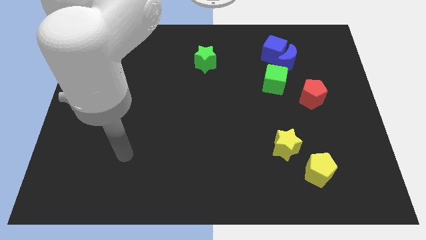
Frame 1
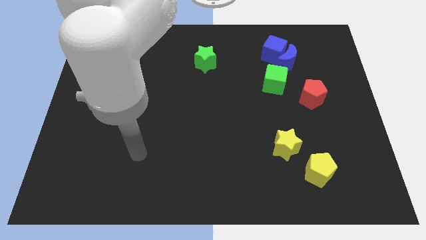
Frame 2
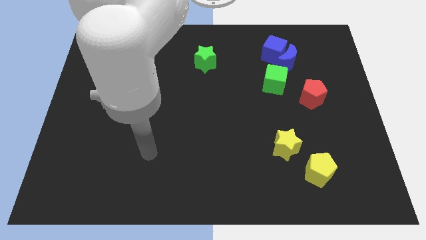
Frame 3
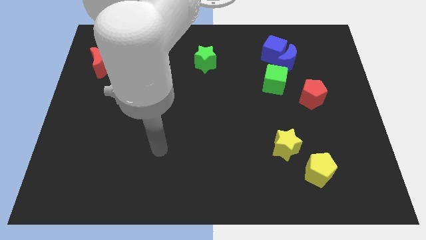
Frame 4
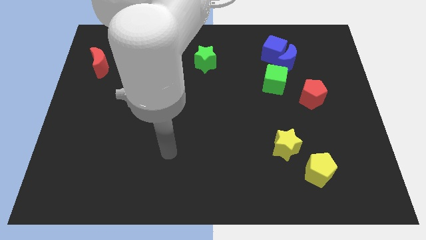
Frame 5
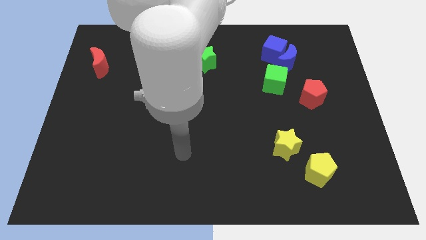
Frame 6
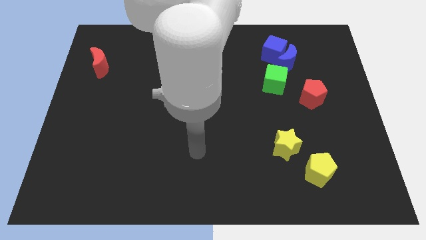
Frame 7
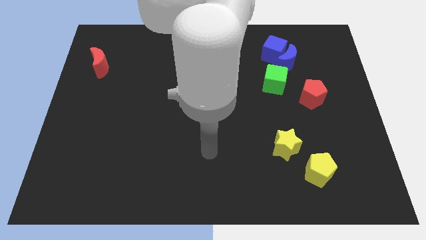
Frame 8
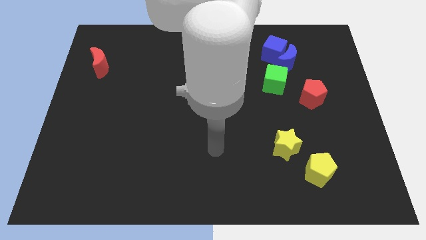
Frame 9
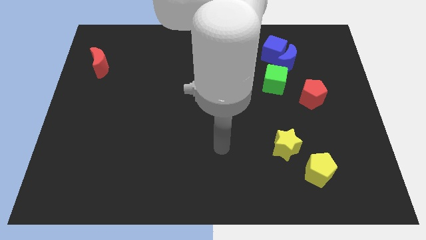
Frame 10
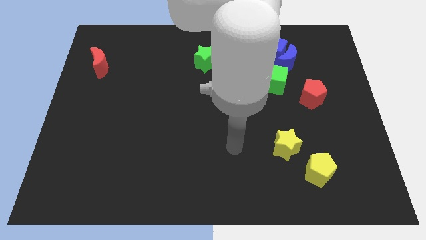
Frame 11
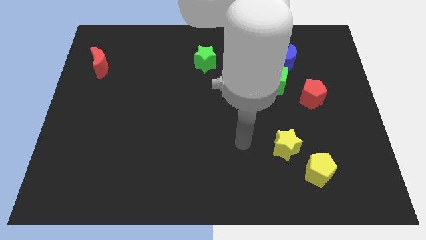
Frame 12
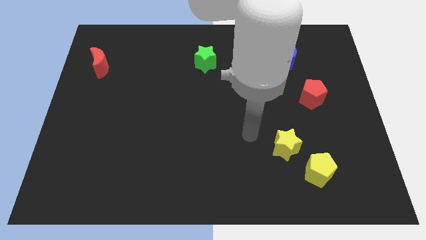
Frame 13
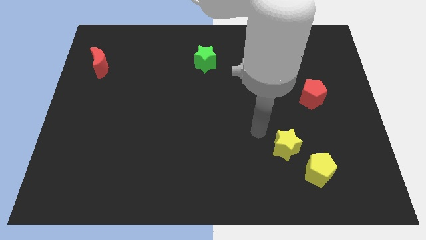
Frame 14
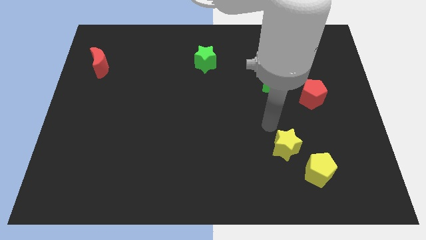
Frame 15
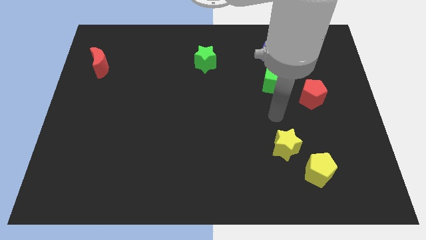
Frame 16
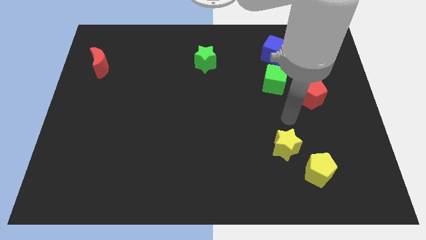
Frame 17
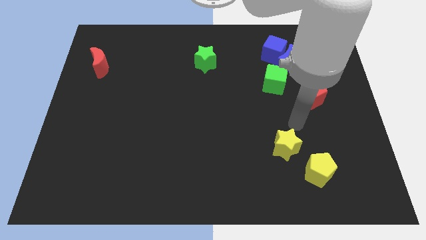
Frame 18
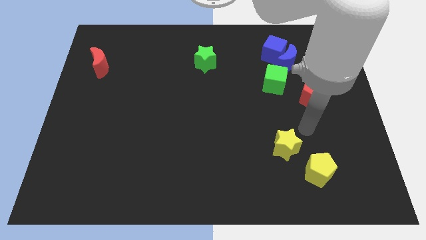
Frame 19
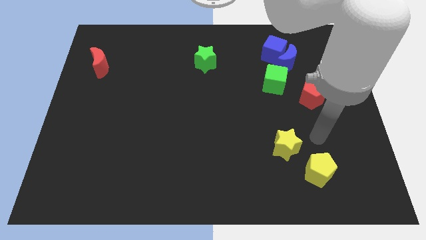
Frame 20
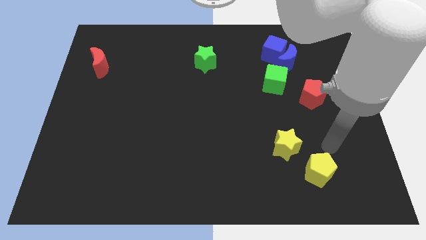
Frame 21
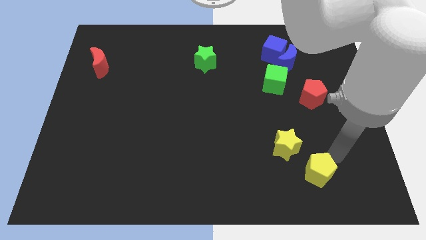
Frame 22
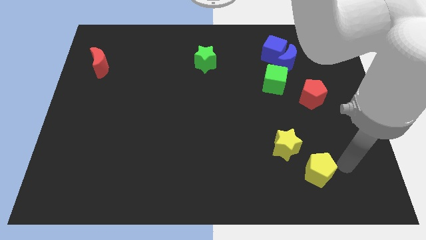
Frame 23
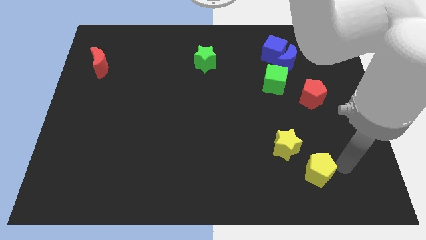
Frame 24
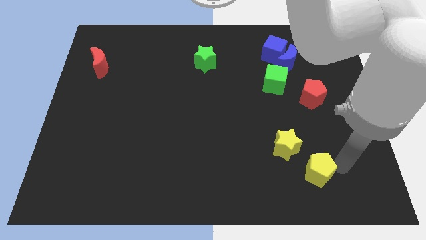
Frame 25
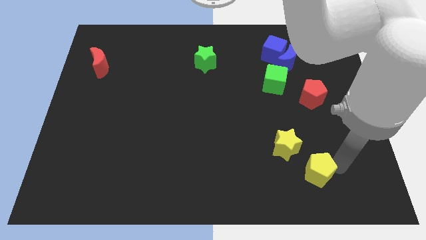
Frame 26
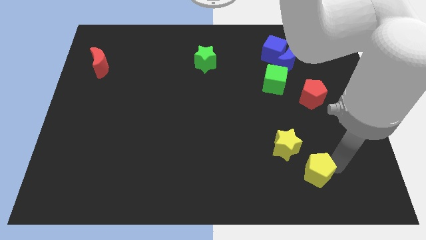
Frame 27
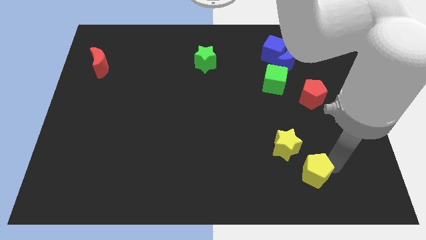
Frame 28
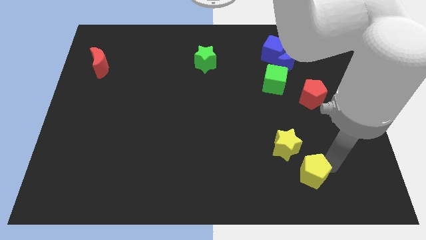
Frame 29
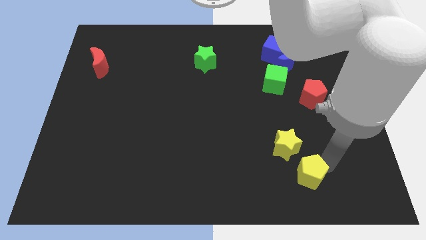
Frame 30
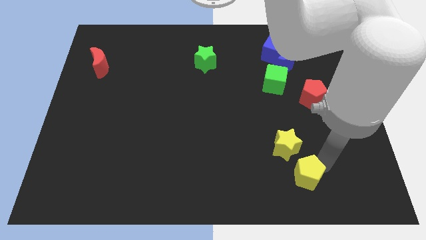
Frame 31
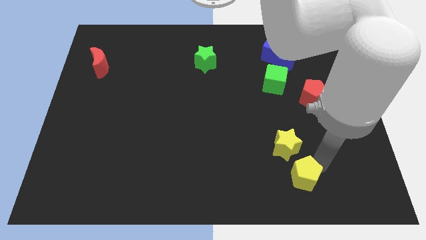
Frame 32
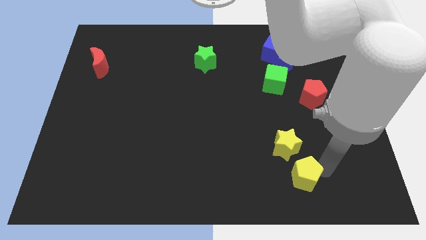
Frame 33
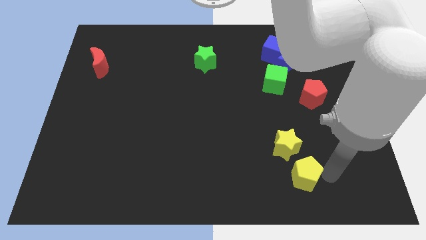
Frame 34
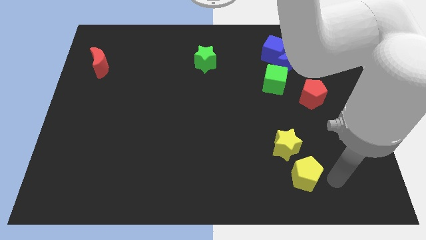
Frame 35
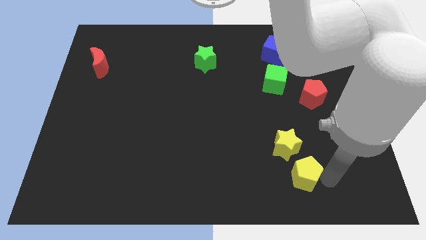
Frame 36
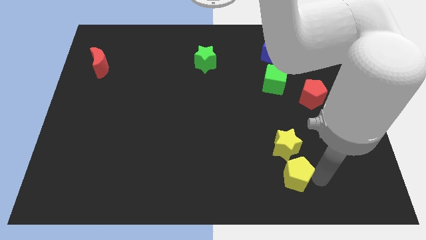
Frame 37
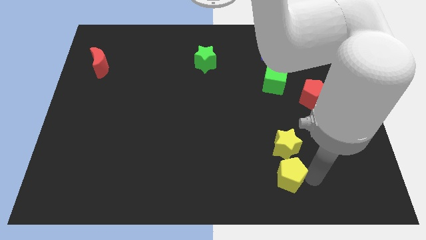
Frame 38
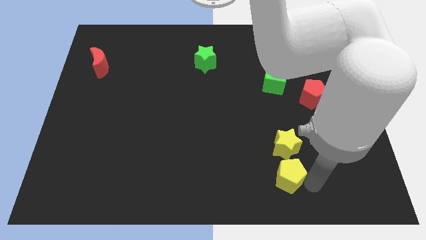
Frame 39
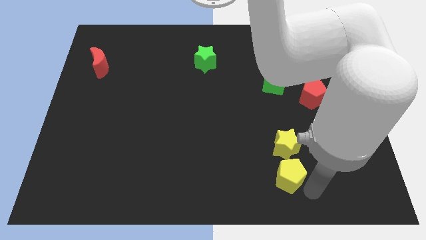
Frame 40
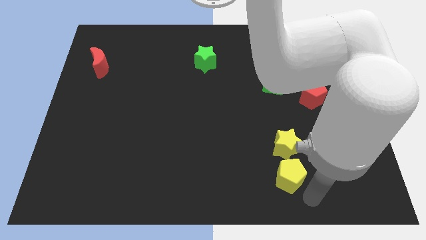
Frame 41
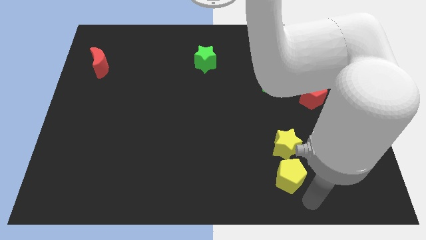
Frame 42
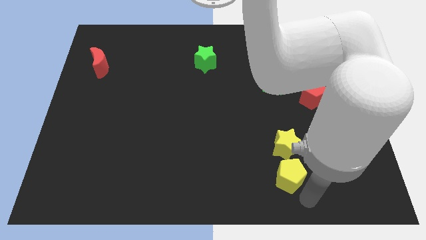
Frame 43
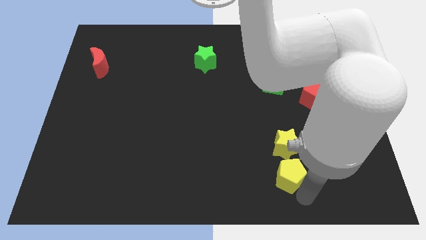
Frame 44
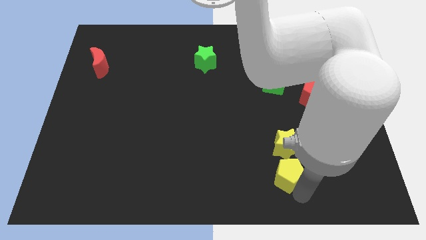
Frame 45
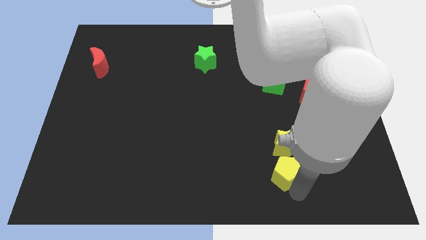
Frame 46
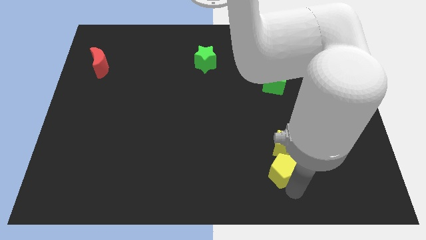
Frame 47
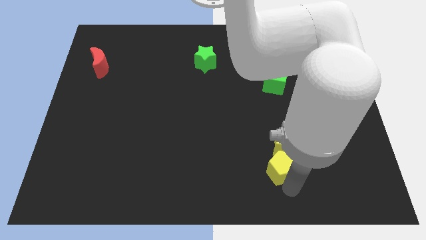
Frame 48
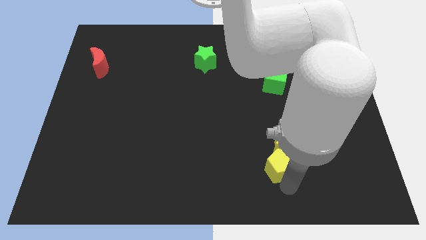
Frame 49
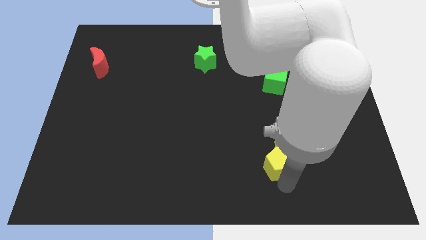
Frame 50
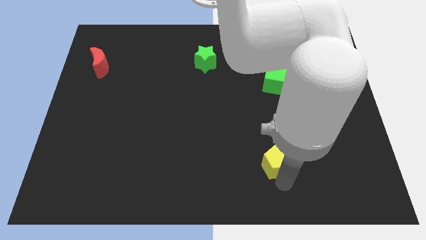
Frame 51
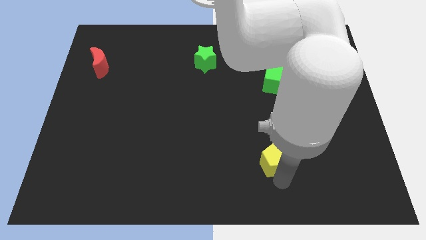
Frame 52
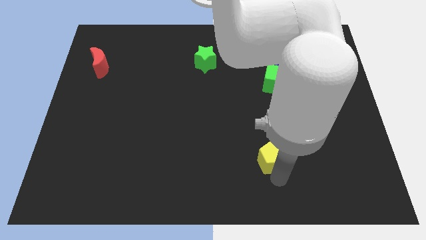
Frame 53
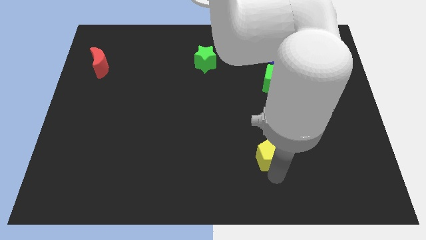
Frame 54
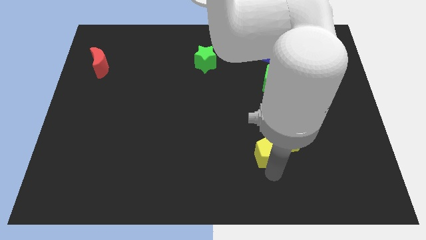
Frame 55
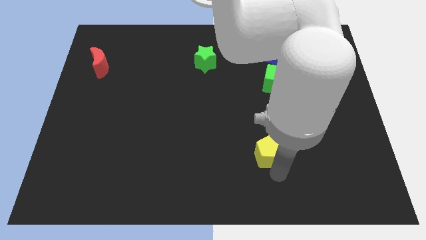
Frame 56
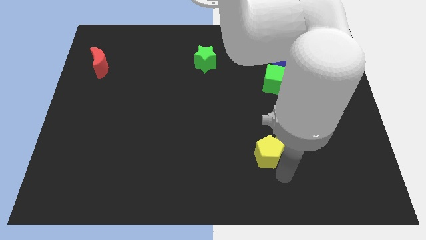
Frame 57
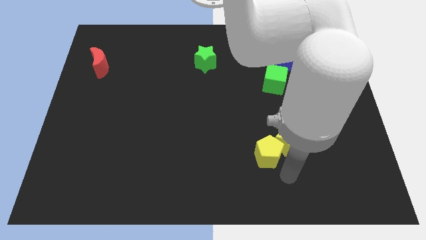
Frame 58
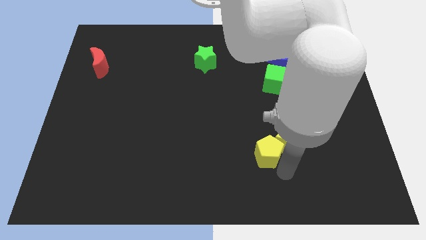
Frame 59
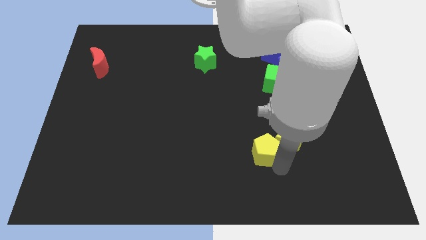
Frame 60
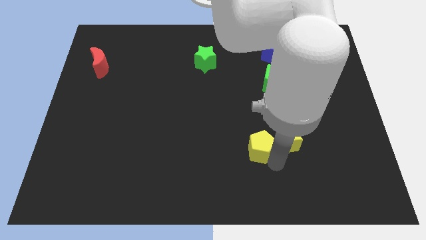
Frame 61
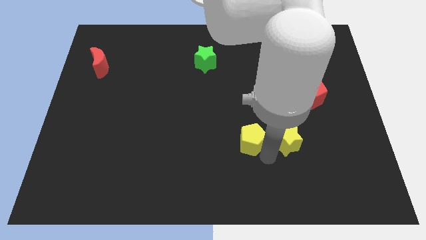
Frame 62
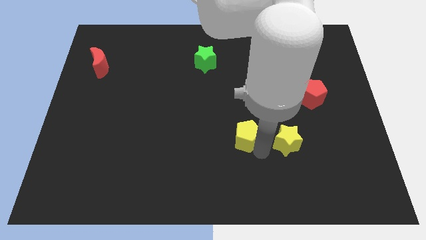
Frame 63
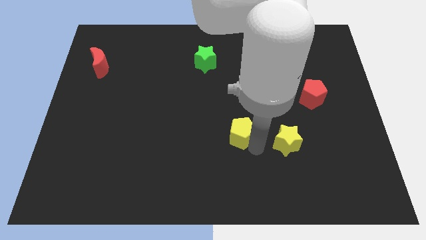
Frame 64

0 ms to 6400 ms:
move the yellow pentagon to the center

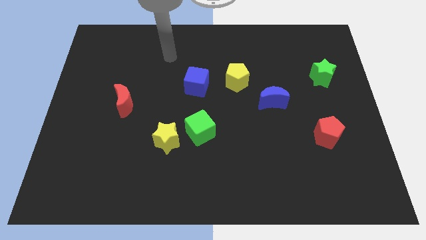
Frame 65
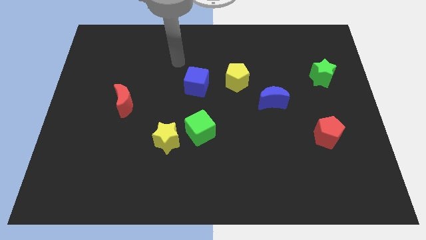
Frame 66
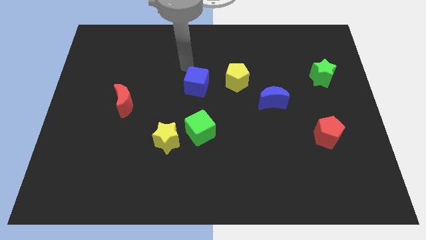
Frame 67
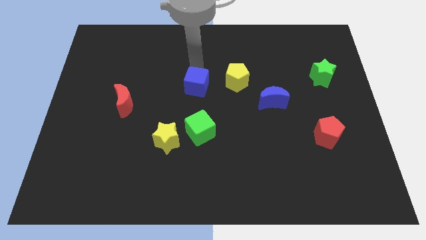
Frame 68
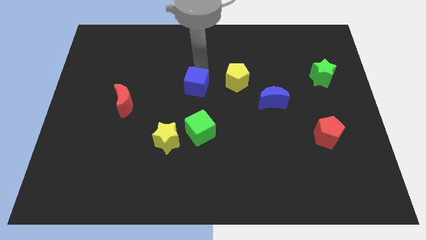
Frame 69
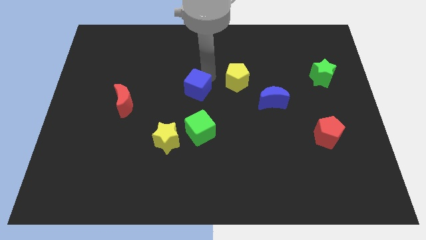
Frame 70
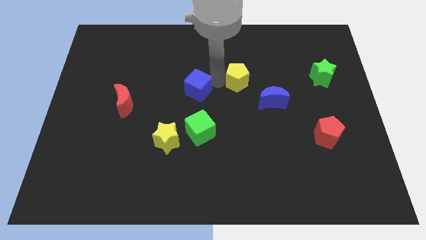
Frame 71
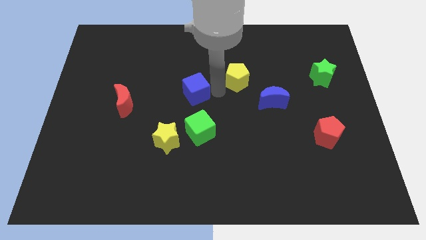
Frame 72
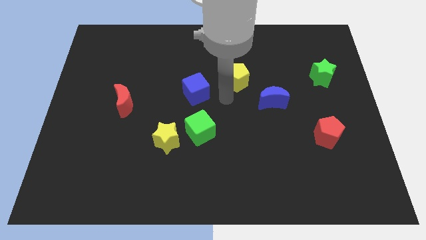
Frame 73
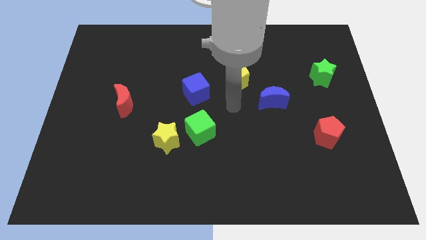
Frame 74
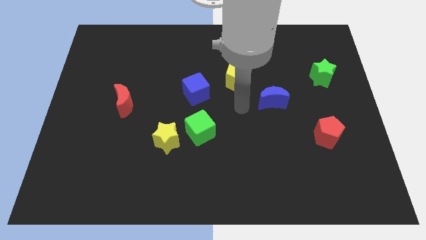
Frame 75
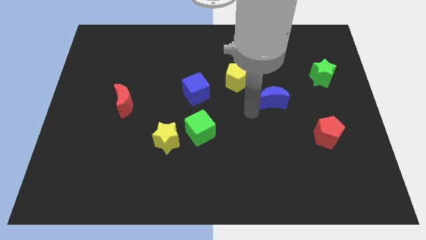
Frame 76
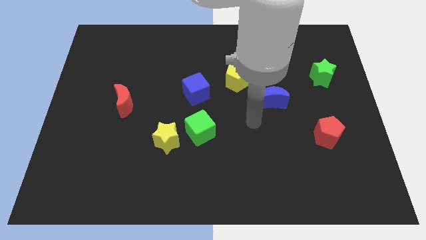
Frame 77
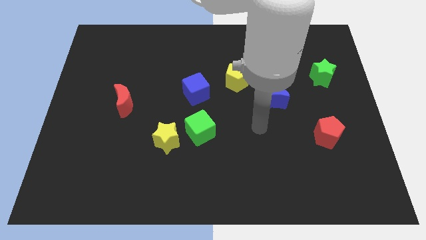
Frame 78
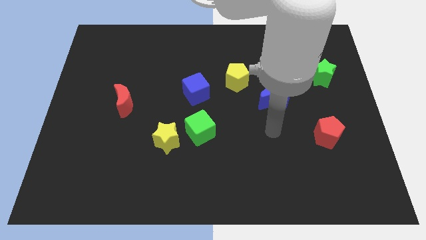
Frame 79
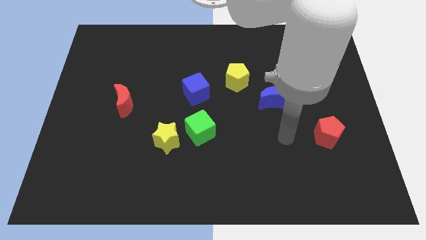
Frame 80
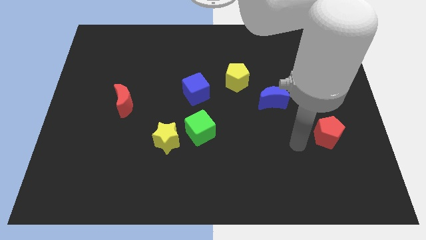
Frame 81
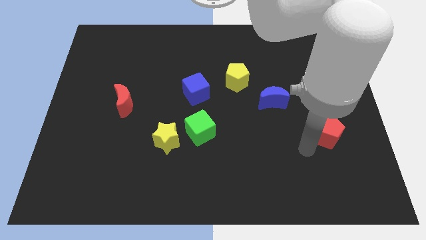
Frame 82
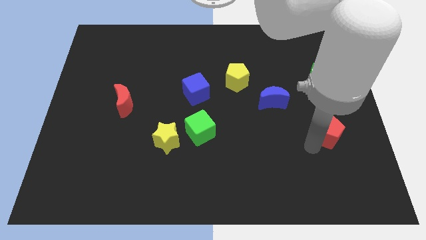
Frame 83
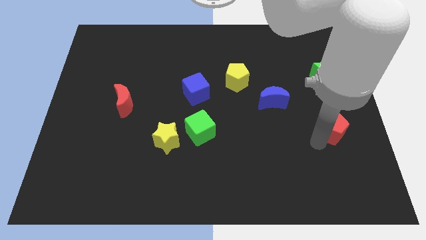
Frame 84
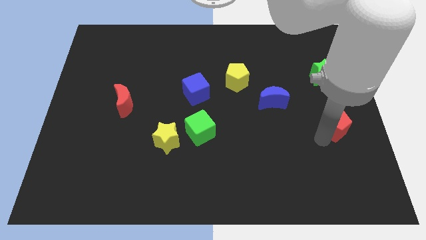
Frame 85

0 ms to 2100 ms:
push the red pentagon to the right side of the board
